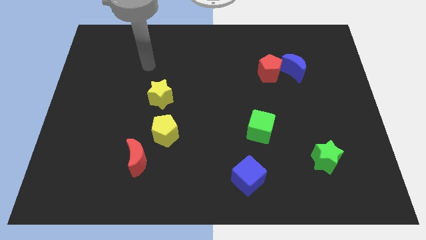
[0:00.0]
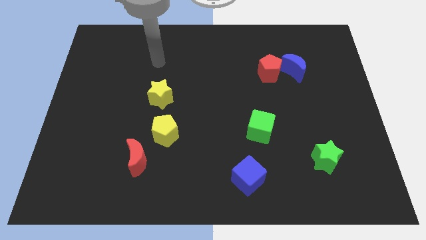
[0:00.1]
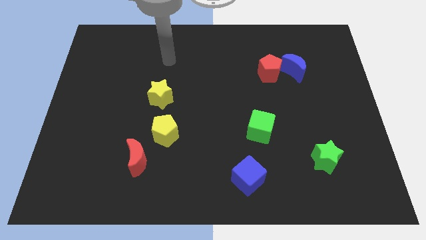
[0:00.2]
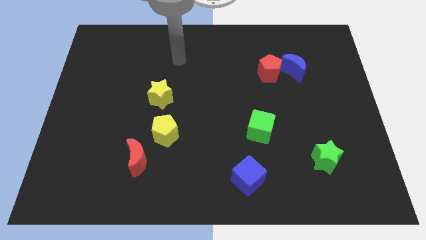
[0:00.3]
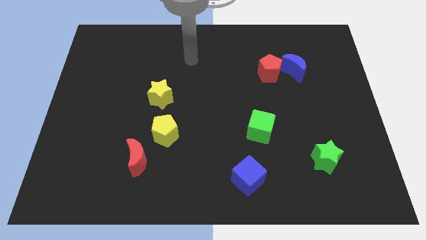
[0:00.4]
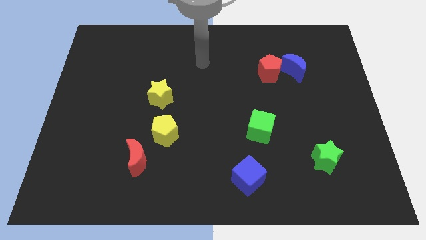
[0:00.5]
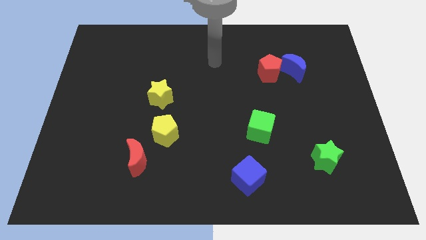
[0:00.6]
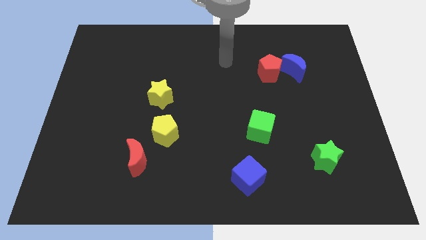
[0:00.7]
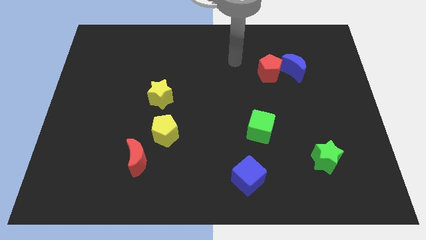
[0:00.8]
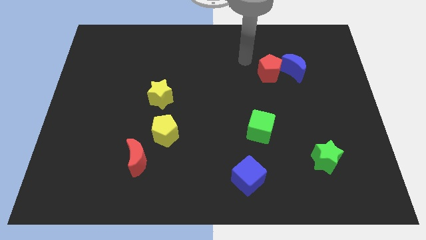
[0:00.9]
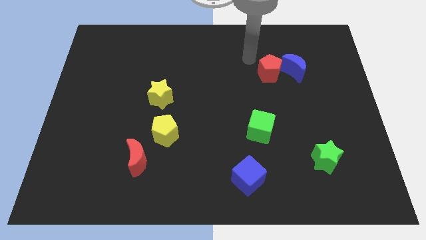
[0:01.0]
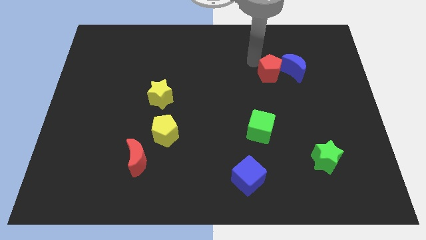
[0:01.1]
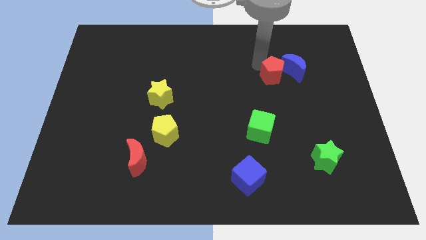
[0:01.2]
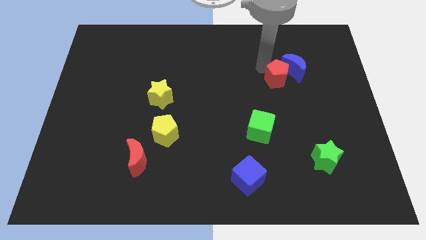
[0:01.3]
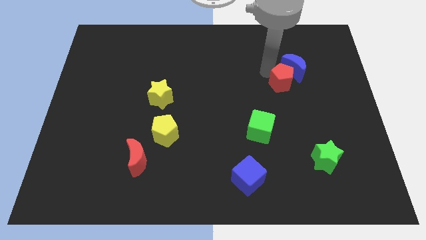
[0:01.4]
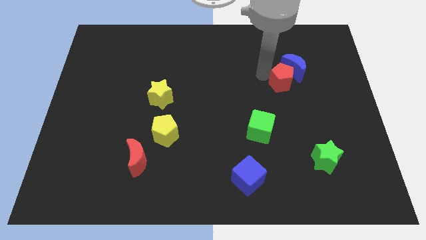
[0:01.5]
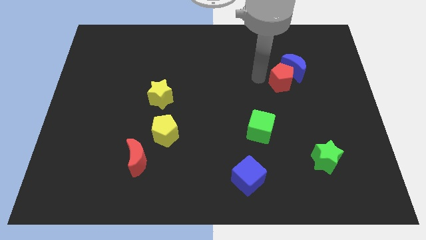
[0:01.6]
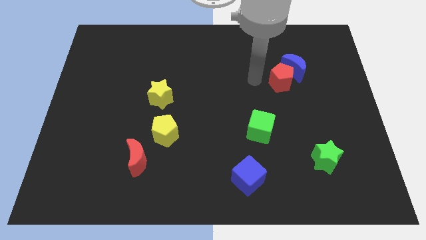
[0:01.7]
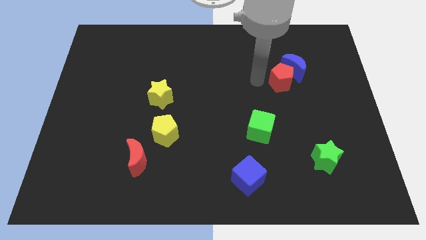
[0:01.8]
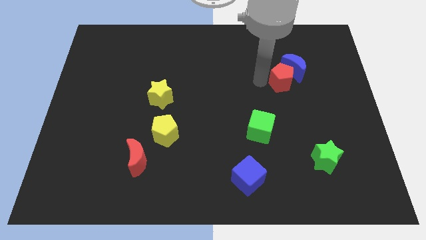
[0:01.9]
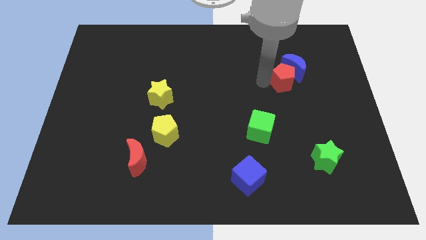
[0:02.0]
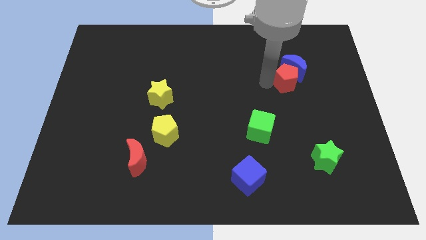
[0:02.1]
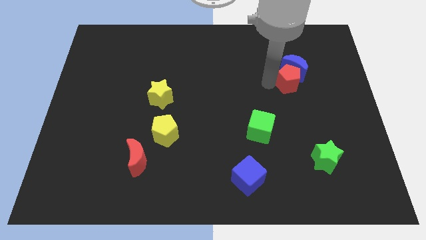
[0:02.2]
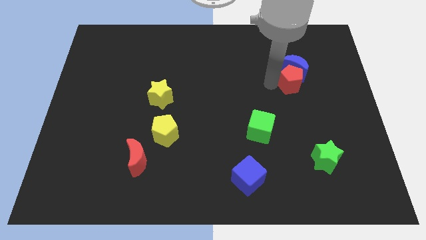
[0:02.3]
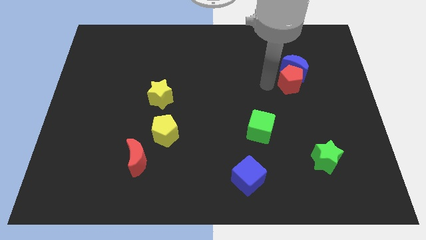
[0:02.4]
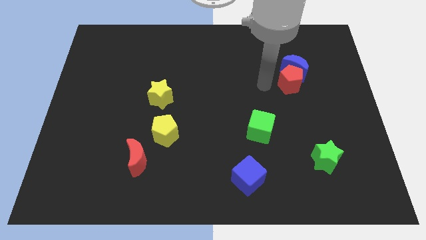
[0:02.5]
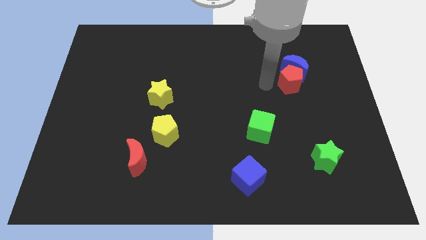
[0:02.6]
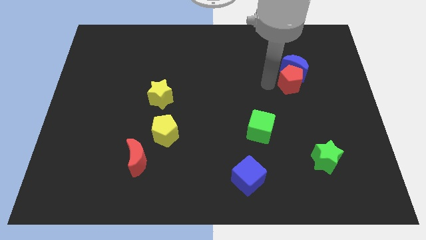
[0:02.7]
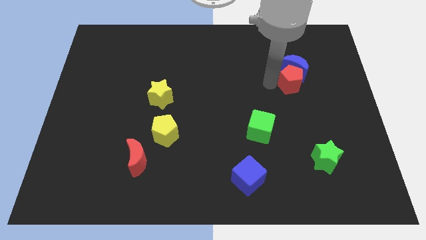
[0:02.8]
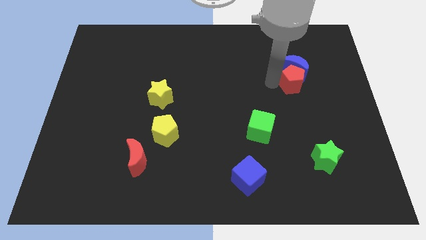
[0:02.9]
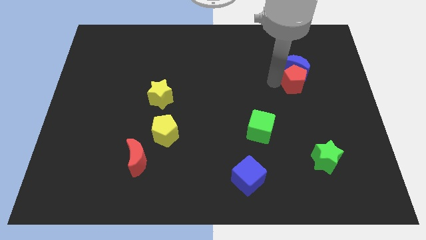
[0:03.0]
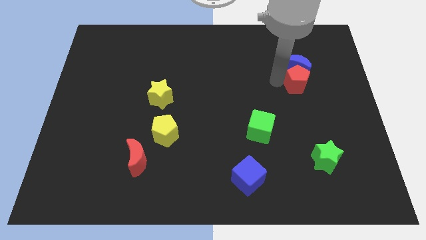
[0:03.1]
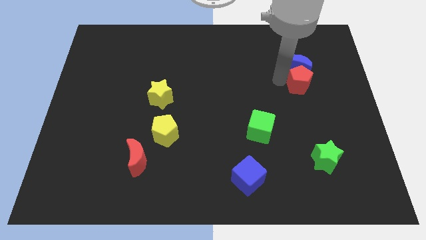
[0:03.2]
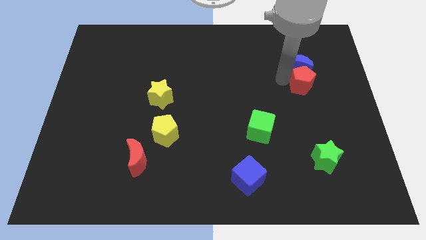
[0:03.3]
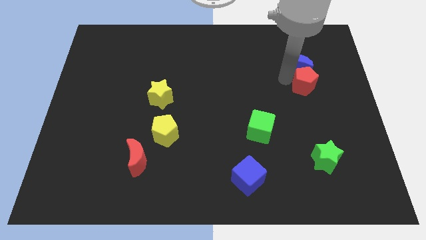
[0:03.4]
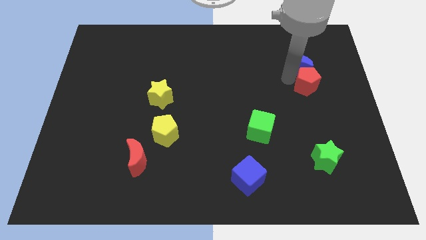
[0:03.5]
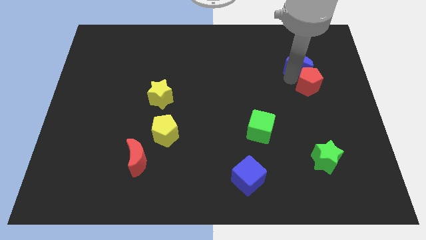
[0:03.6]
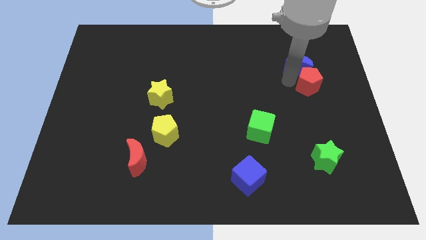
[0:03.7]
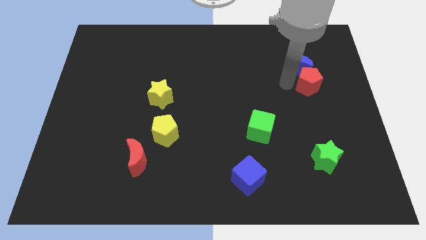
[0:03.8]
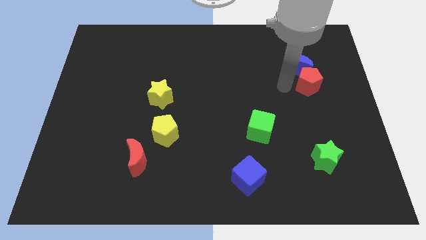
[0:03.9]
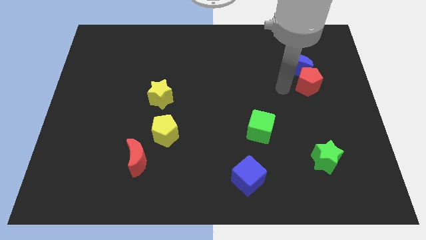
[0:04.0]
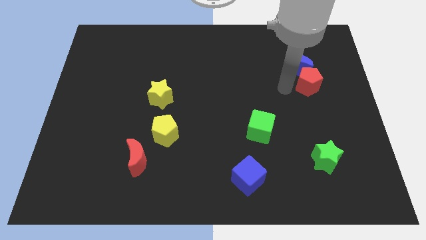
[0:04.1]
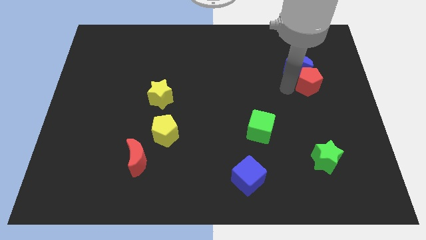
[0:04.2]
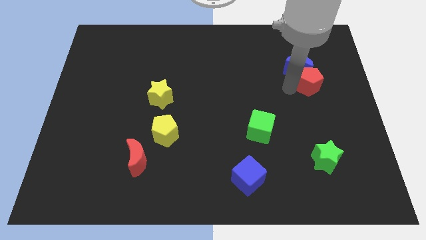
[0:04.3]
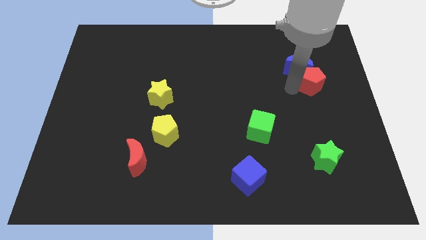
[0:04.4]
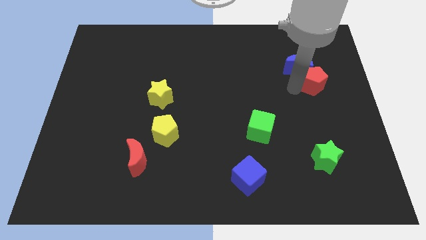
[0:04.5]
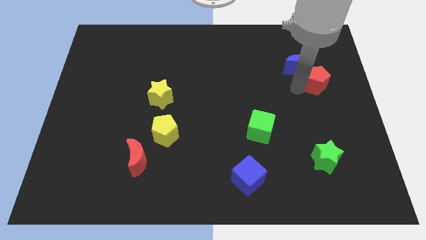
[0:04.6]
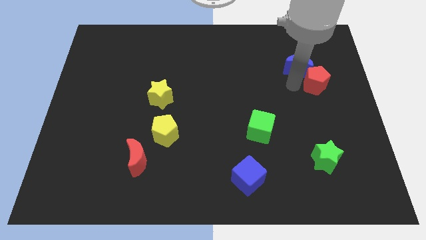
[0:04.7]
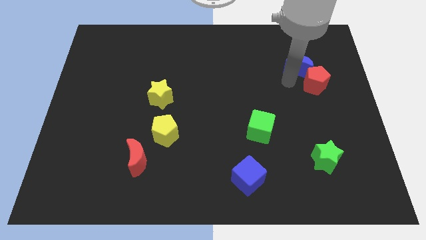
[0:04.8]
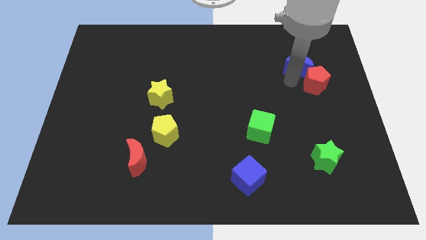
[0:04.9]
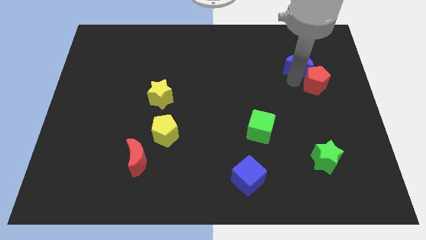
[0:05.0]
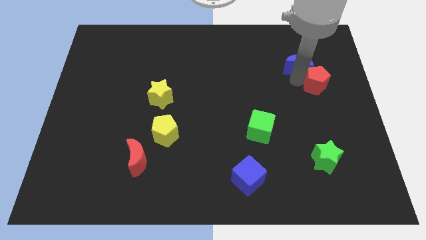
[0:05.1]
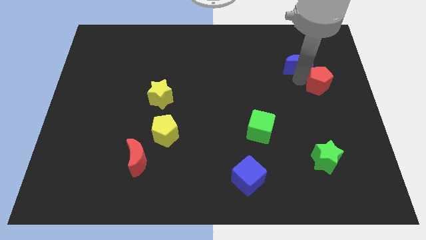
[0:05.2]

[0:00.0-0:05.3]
push the red pentagon to the right side

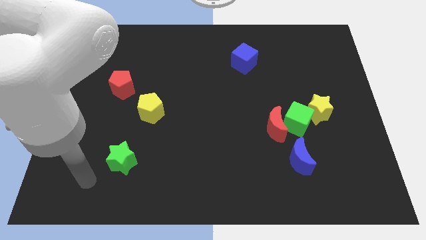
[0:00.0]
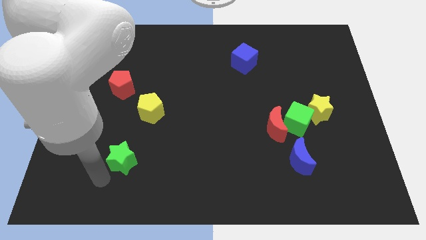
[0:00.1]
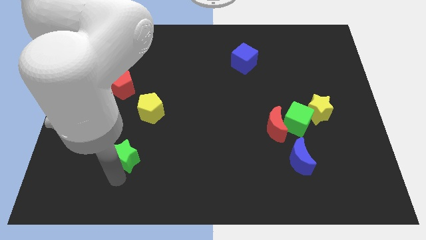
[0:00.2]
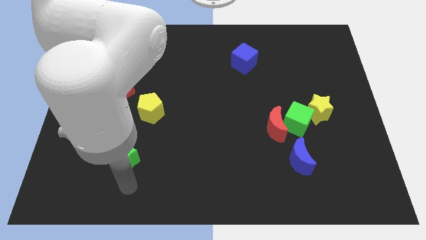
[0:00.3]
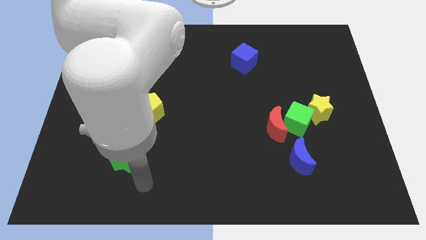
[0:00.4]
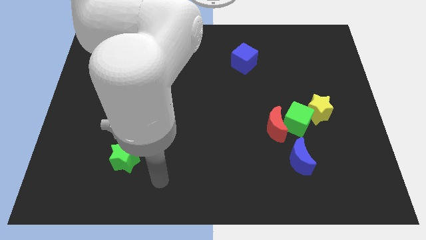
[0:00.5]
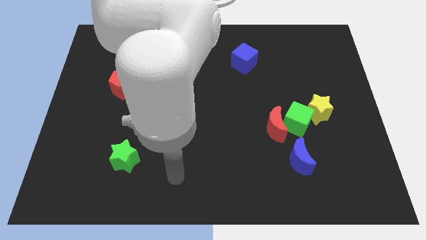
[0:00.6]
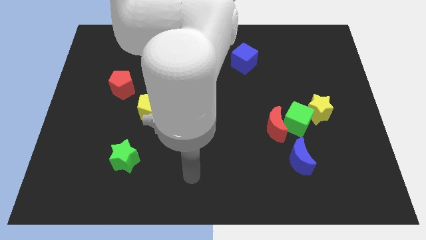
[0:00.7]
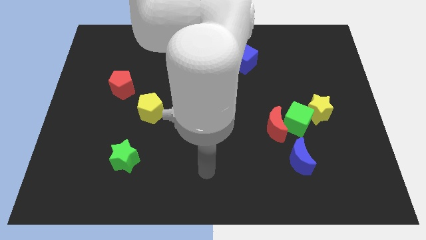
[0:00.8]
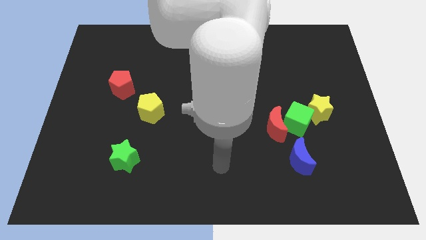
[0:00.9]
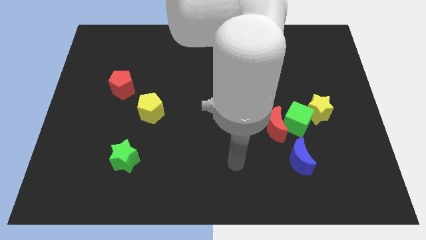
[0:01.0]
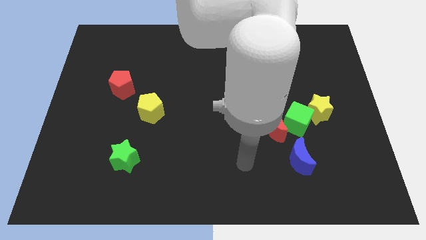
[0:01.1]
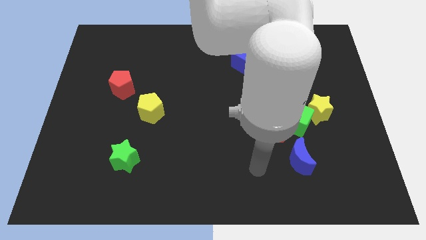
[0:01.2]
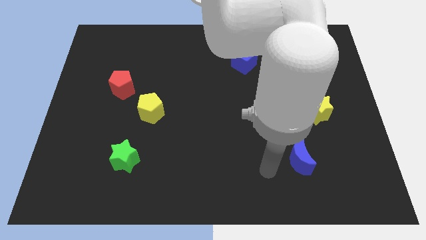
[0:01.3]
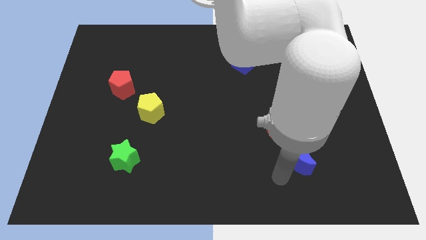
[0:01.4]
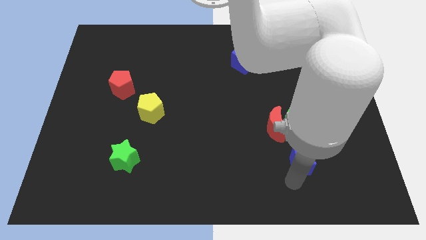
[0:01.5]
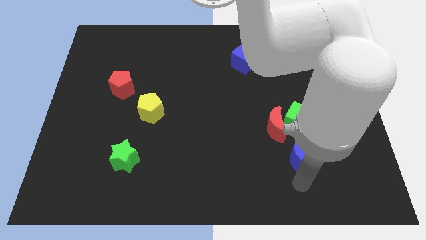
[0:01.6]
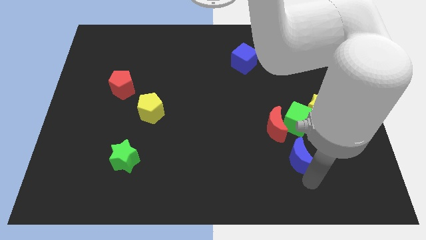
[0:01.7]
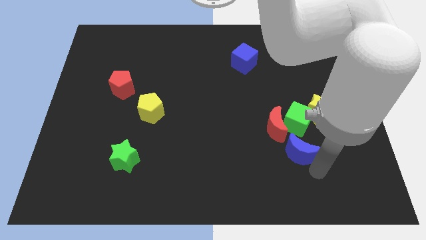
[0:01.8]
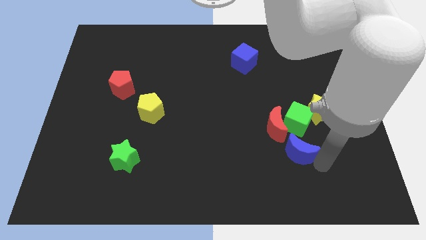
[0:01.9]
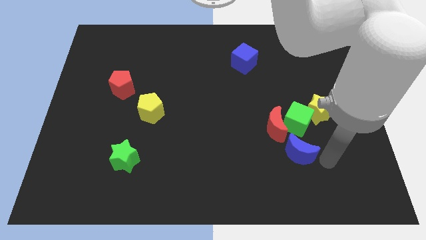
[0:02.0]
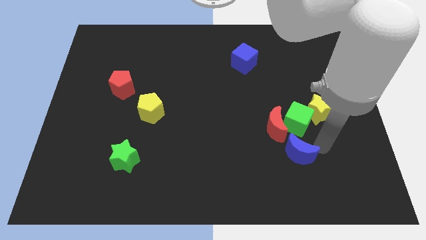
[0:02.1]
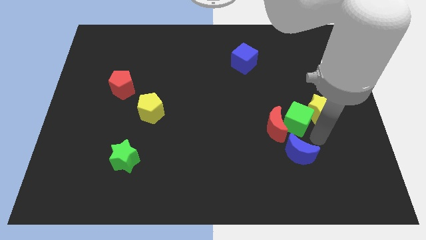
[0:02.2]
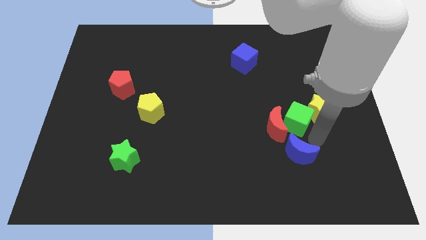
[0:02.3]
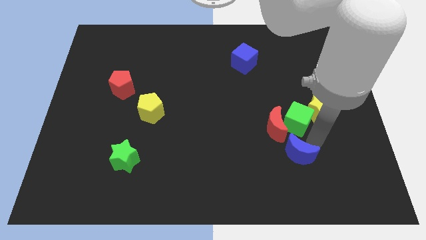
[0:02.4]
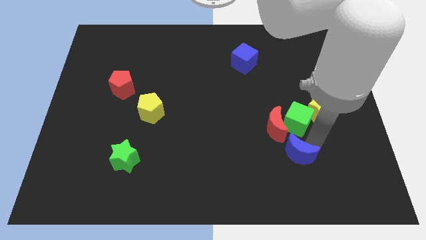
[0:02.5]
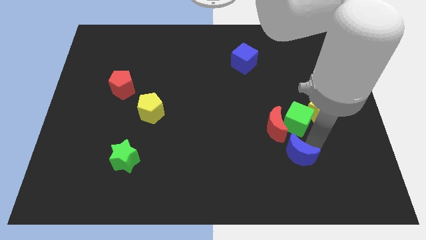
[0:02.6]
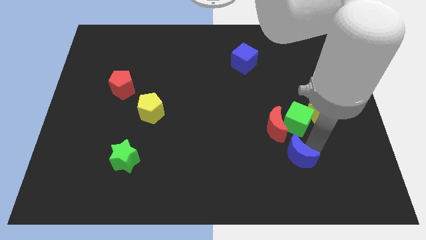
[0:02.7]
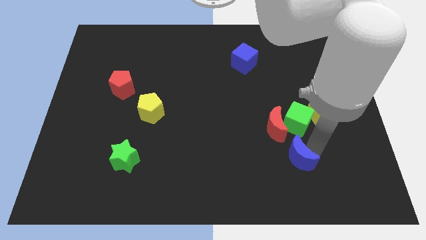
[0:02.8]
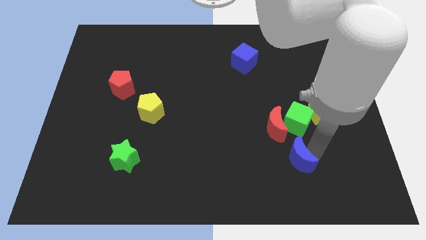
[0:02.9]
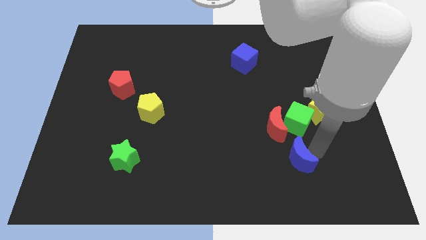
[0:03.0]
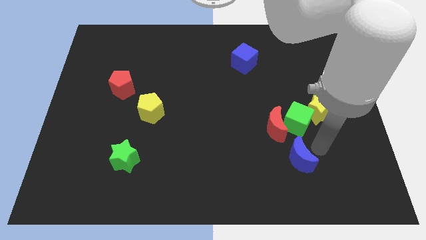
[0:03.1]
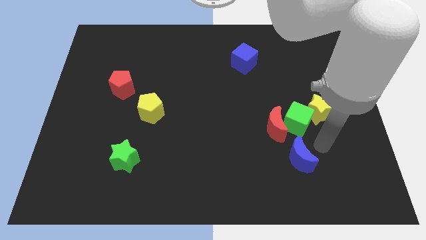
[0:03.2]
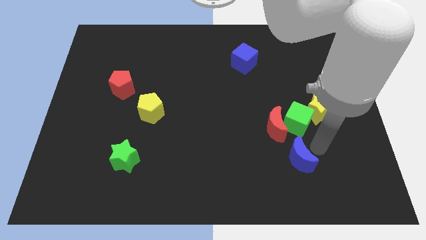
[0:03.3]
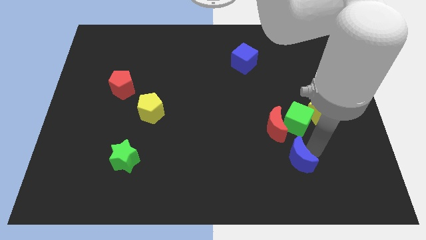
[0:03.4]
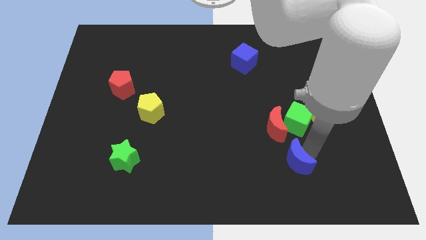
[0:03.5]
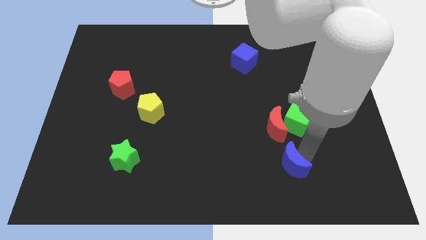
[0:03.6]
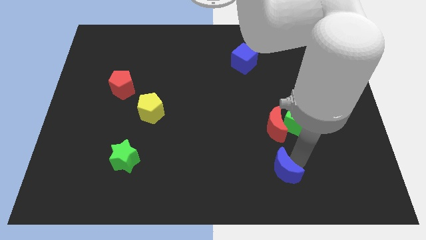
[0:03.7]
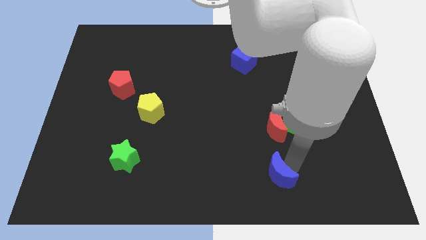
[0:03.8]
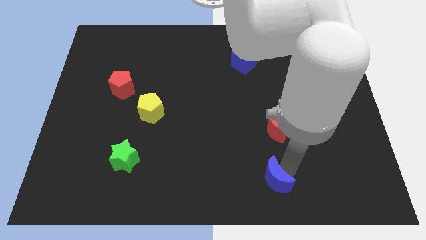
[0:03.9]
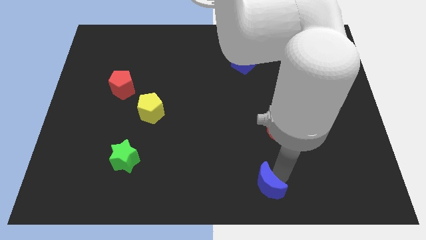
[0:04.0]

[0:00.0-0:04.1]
push the blue moon to the bottom
